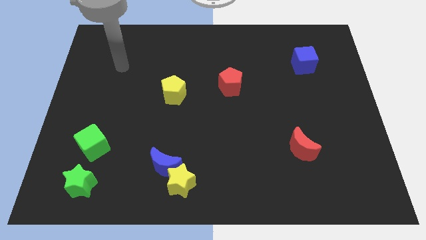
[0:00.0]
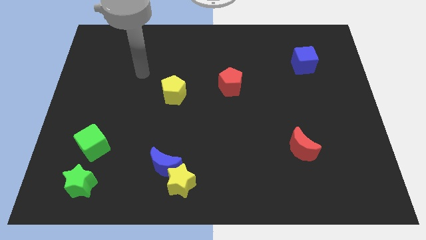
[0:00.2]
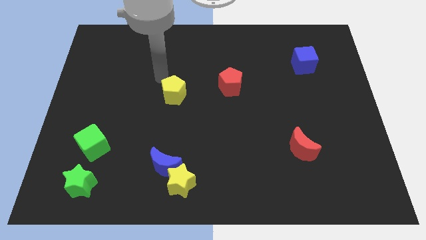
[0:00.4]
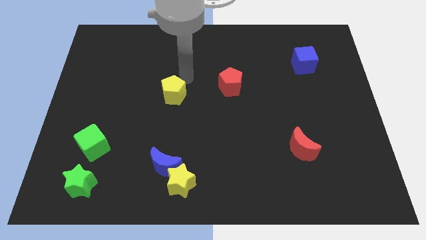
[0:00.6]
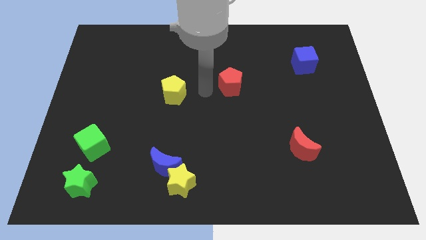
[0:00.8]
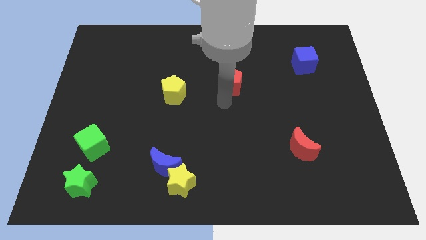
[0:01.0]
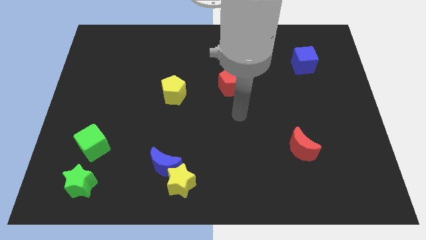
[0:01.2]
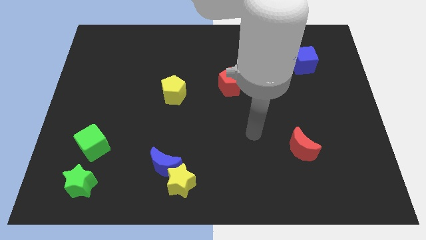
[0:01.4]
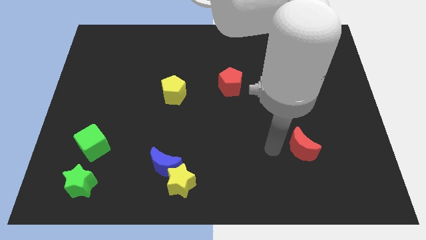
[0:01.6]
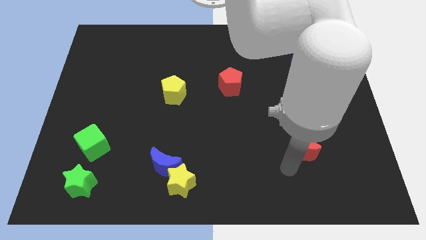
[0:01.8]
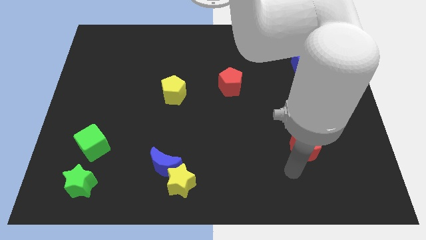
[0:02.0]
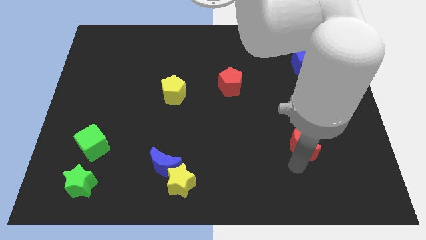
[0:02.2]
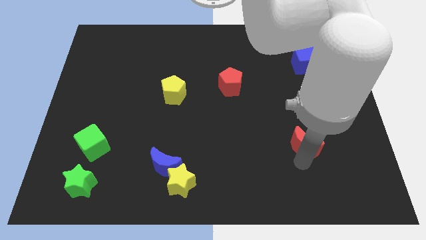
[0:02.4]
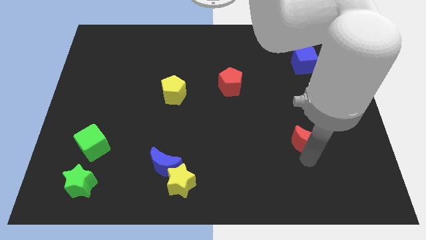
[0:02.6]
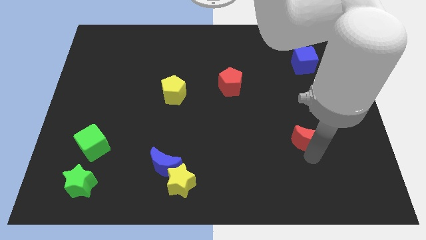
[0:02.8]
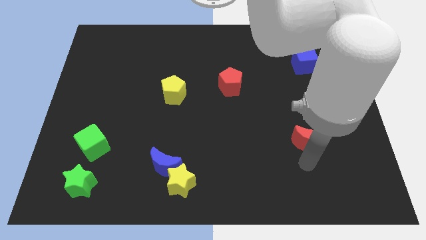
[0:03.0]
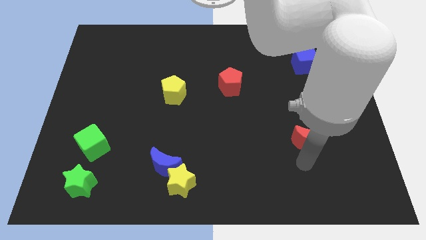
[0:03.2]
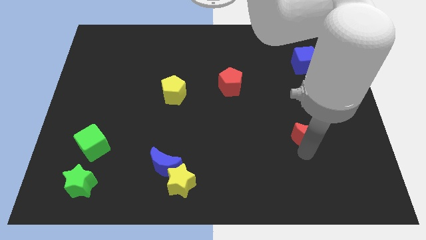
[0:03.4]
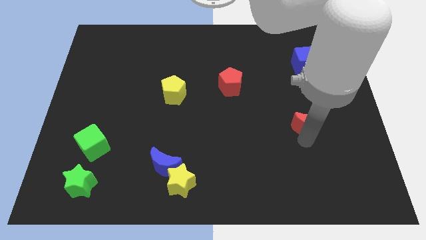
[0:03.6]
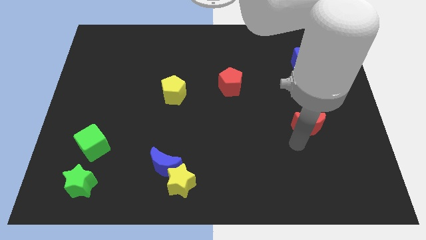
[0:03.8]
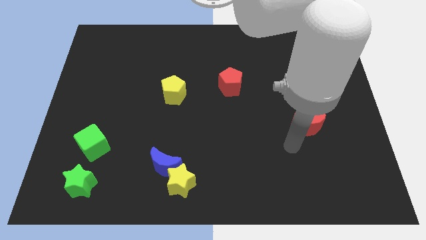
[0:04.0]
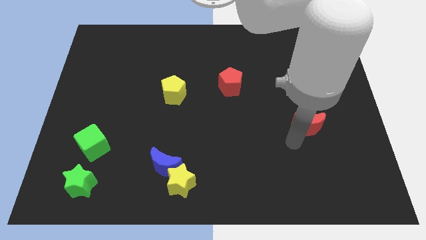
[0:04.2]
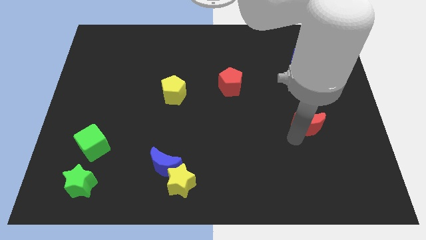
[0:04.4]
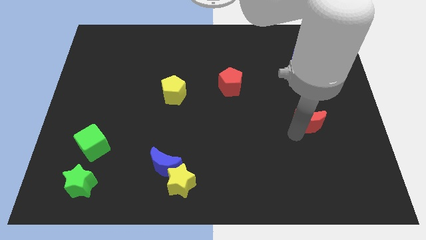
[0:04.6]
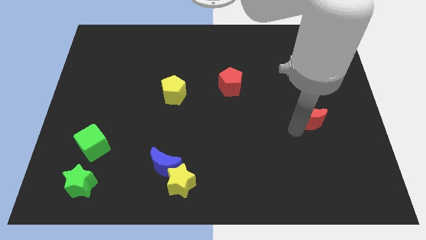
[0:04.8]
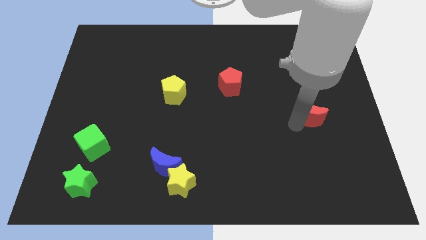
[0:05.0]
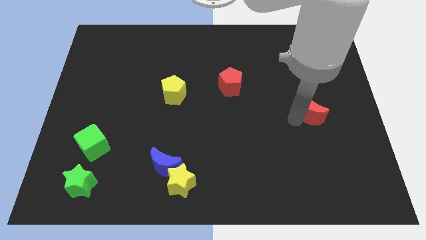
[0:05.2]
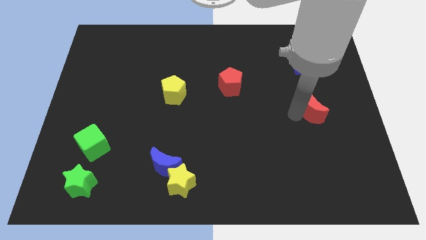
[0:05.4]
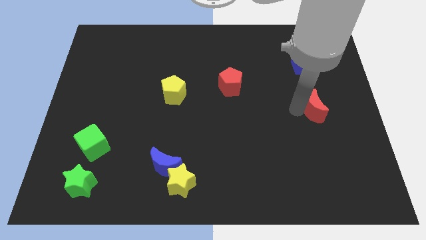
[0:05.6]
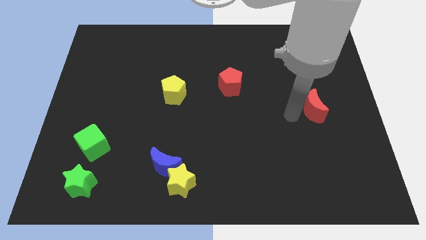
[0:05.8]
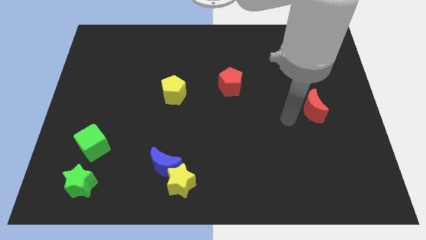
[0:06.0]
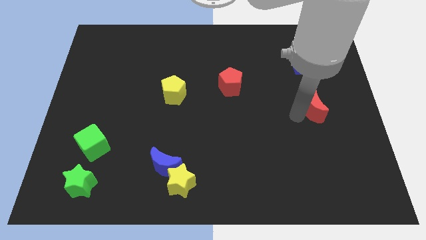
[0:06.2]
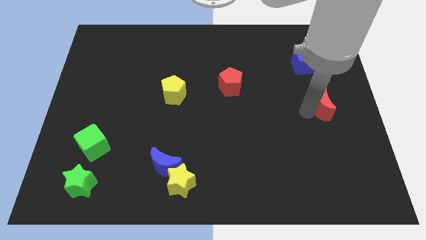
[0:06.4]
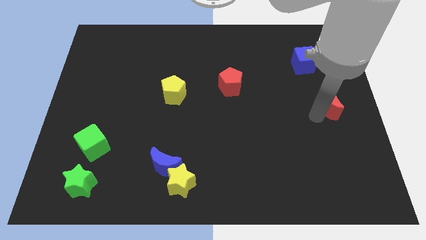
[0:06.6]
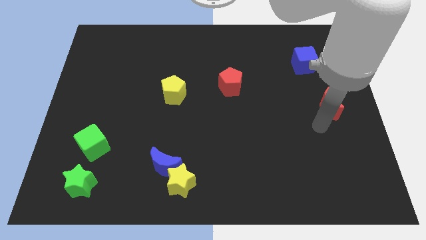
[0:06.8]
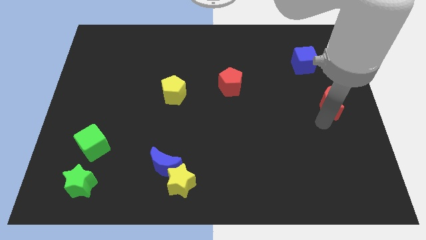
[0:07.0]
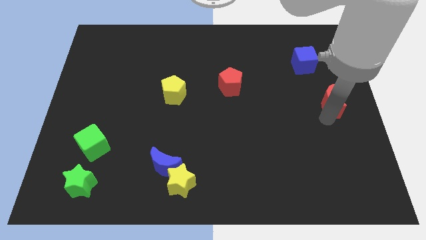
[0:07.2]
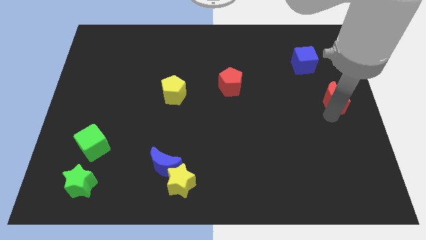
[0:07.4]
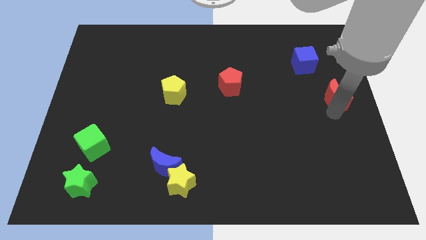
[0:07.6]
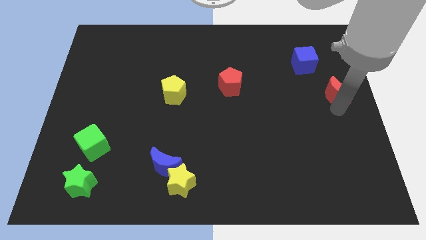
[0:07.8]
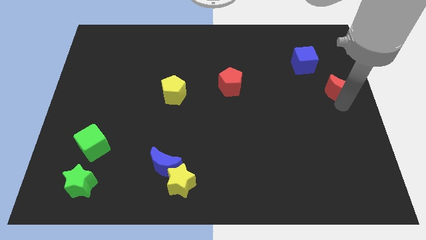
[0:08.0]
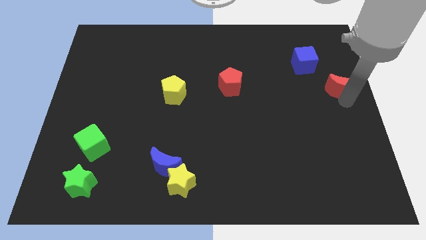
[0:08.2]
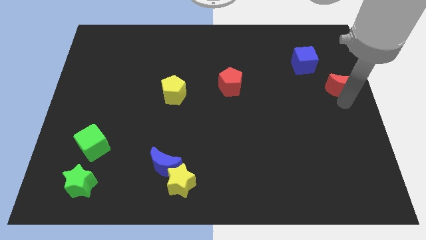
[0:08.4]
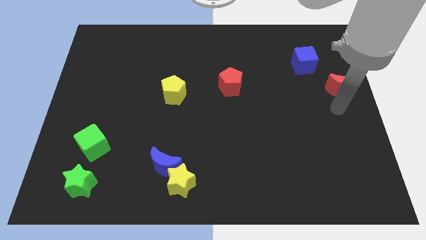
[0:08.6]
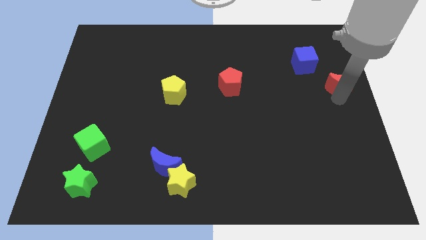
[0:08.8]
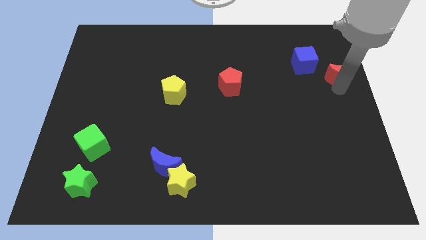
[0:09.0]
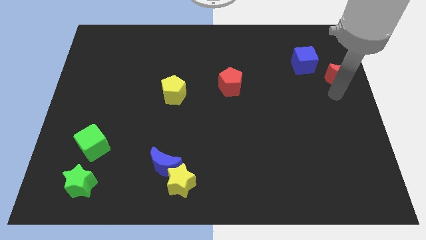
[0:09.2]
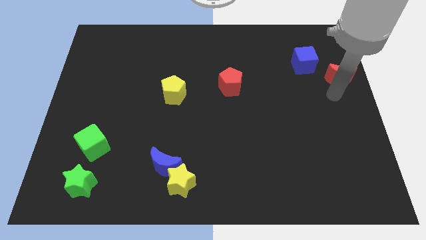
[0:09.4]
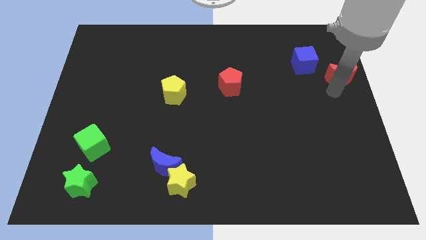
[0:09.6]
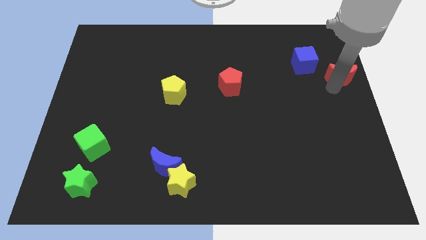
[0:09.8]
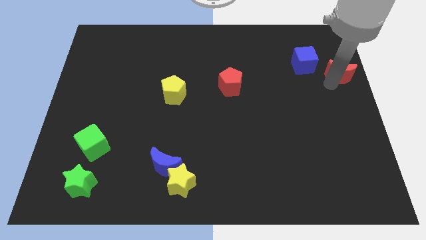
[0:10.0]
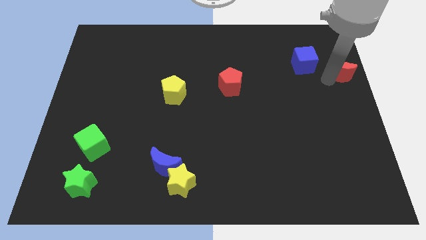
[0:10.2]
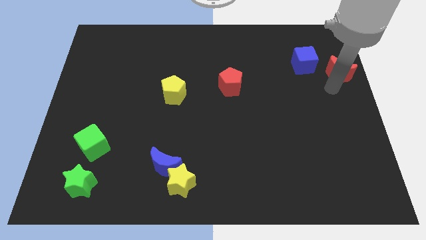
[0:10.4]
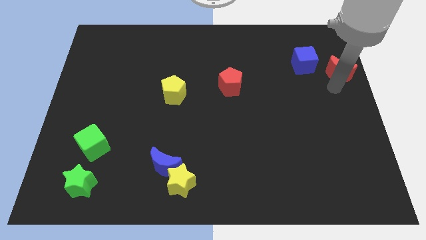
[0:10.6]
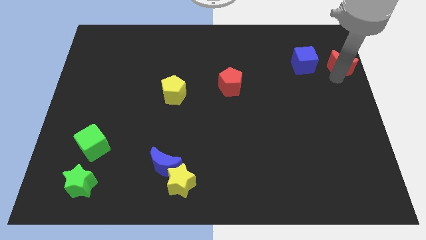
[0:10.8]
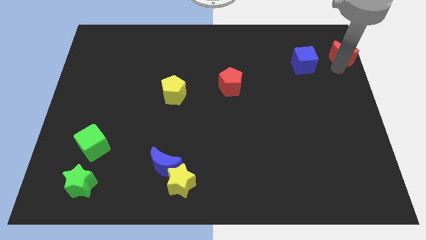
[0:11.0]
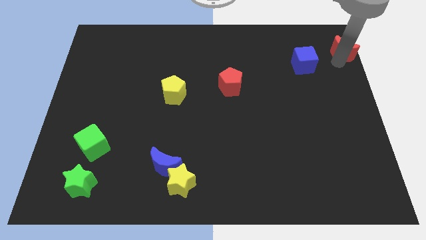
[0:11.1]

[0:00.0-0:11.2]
slide the red moon to the upper right corner

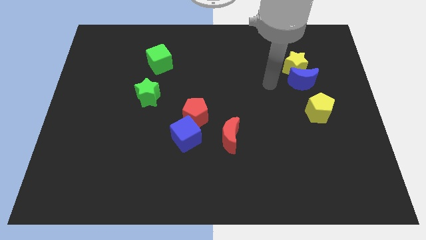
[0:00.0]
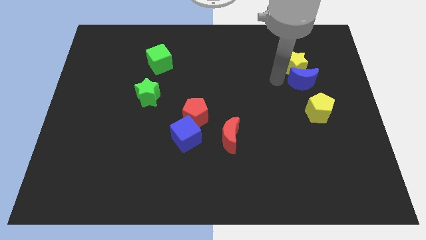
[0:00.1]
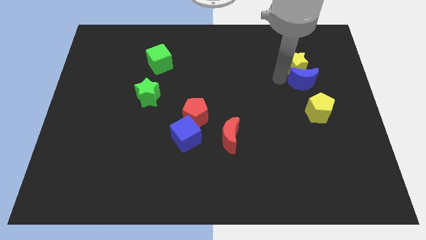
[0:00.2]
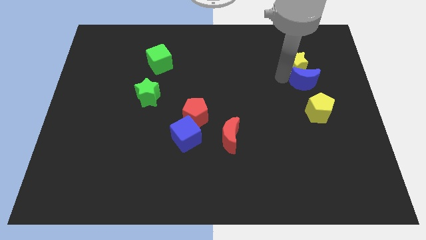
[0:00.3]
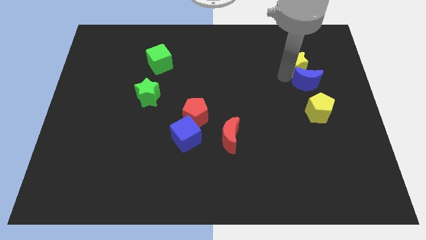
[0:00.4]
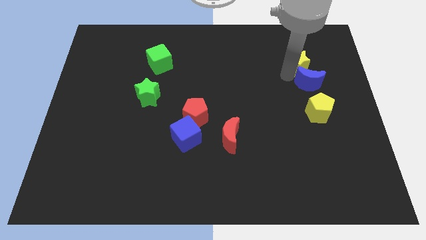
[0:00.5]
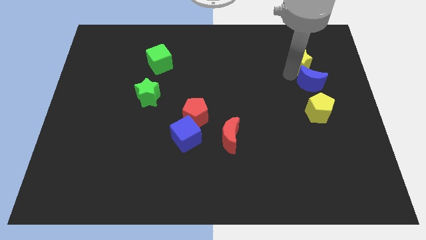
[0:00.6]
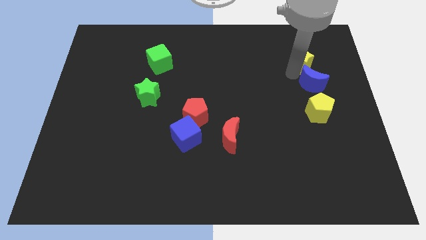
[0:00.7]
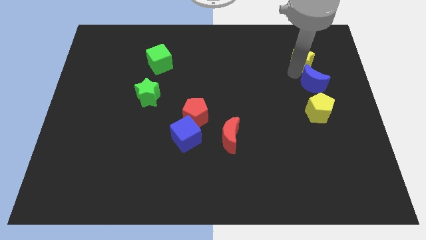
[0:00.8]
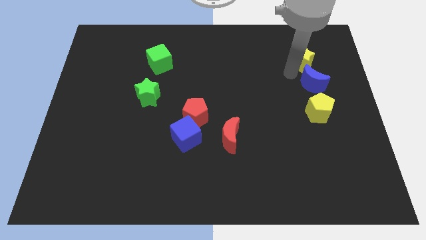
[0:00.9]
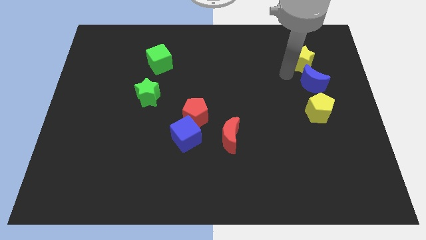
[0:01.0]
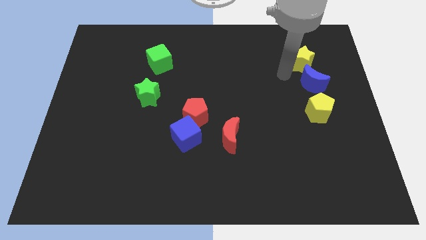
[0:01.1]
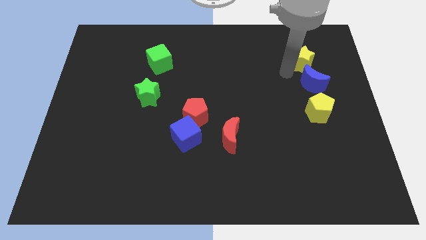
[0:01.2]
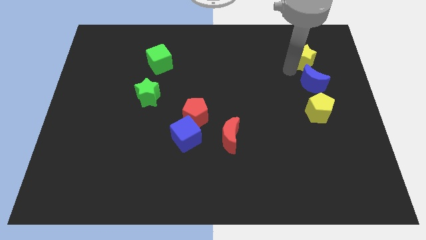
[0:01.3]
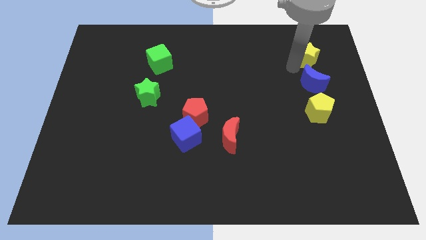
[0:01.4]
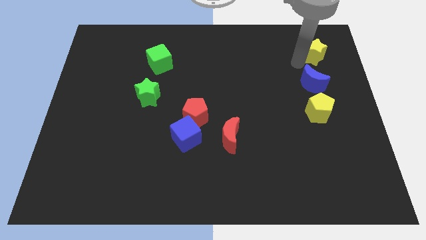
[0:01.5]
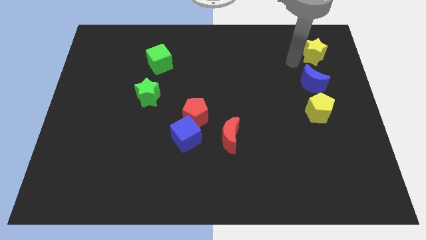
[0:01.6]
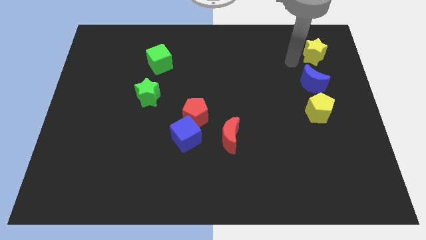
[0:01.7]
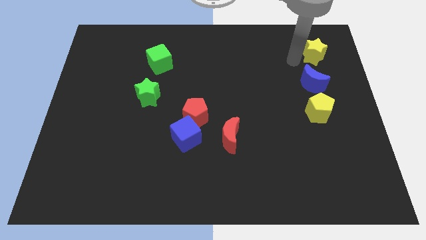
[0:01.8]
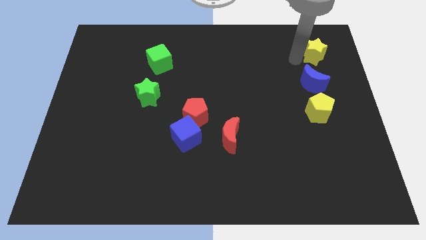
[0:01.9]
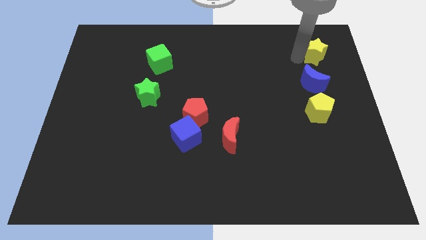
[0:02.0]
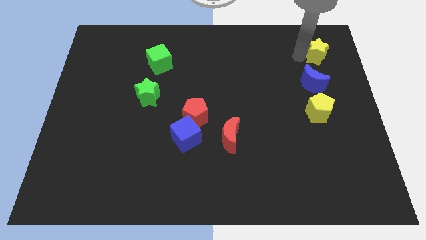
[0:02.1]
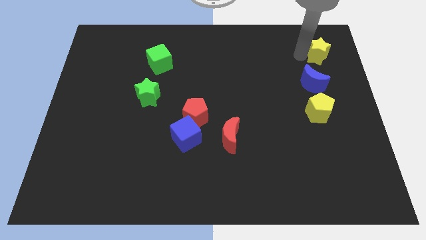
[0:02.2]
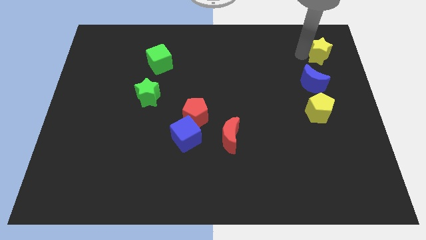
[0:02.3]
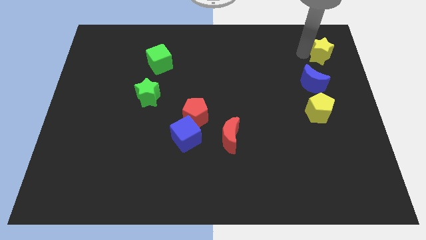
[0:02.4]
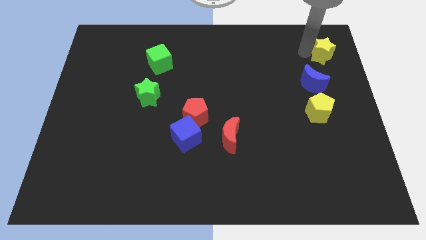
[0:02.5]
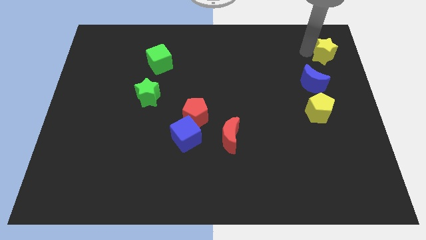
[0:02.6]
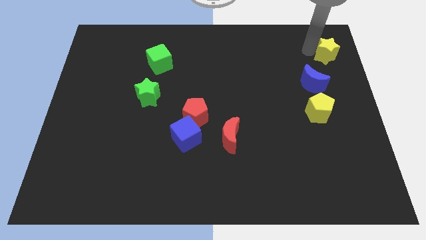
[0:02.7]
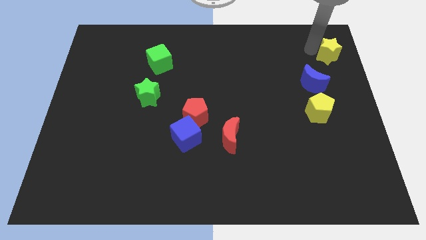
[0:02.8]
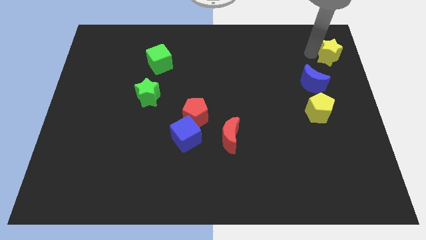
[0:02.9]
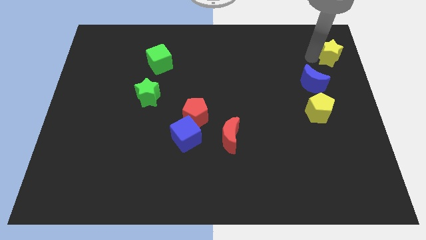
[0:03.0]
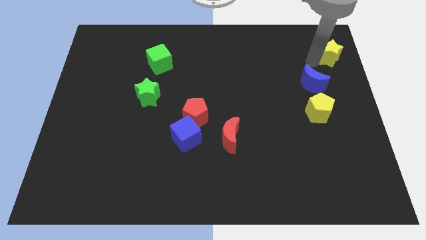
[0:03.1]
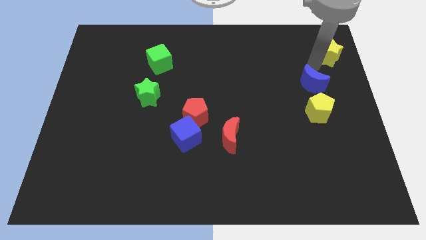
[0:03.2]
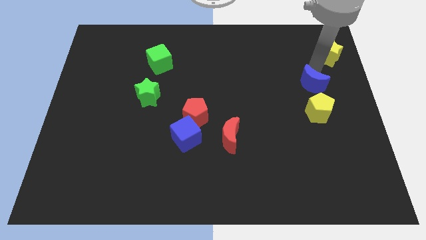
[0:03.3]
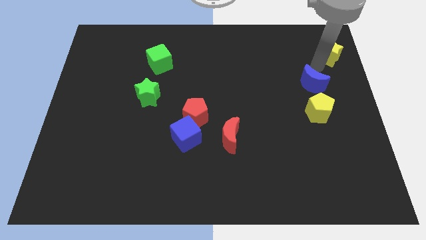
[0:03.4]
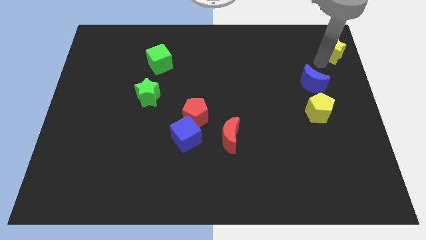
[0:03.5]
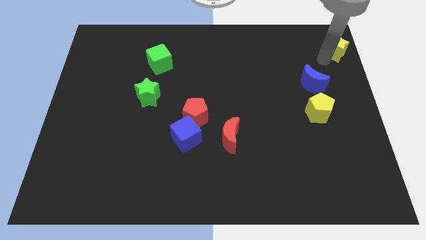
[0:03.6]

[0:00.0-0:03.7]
push the yellow star to the top right of the board
